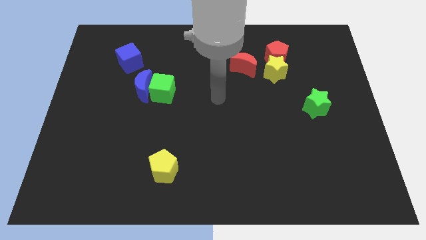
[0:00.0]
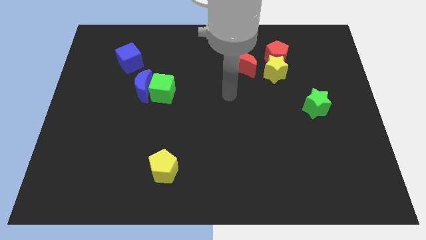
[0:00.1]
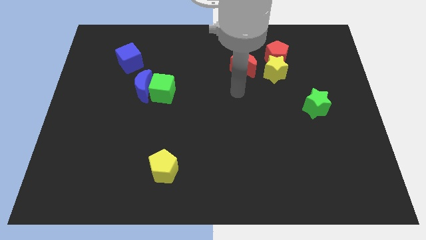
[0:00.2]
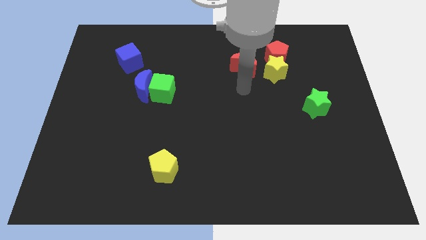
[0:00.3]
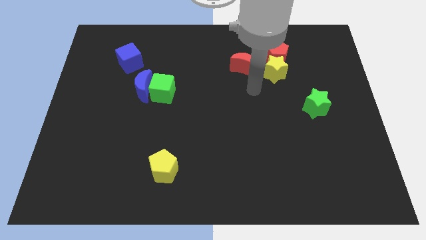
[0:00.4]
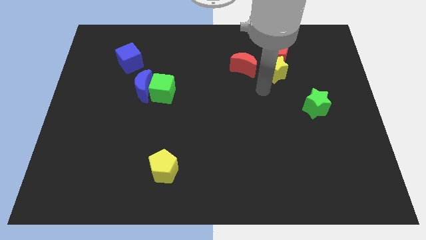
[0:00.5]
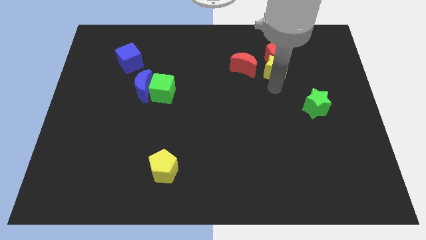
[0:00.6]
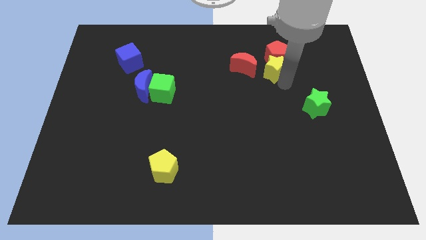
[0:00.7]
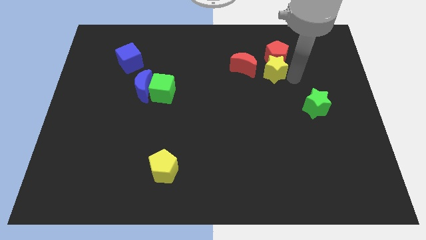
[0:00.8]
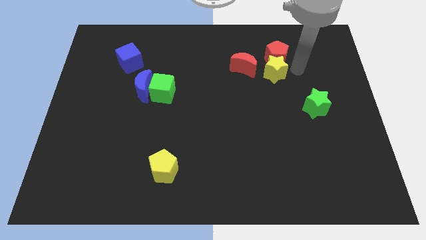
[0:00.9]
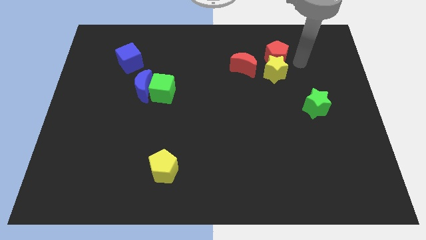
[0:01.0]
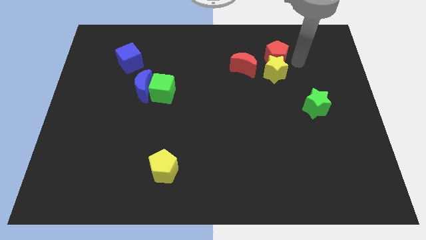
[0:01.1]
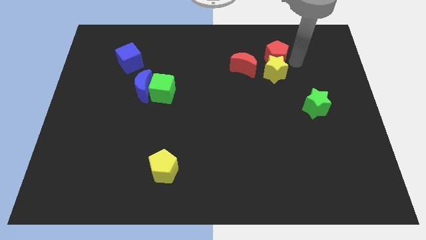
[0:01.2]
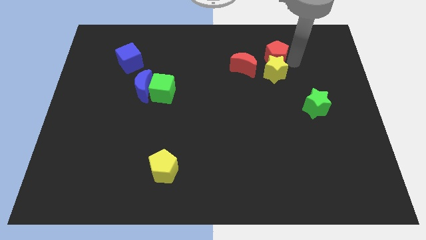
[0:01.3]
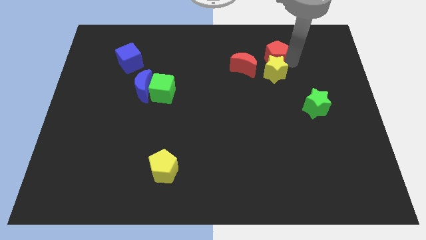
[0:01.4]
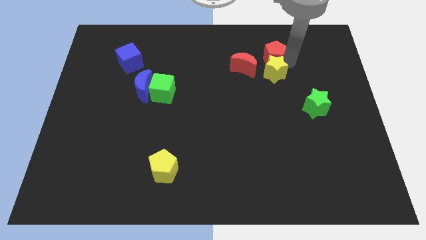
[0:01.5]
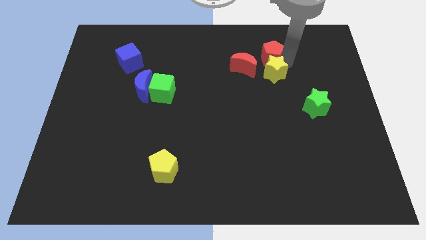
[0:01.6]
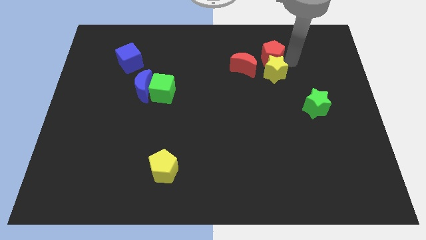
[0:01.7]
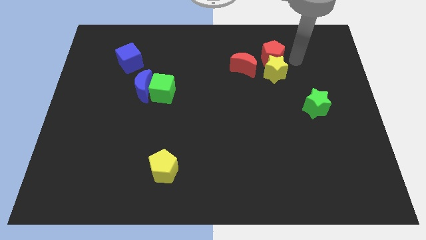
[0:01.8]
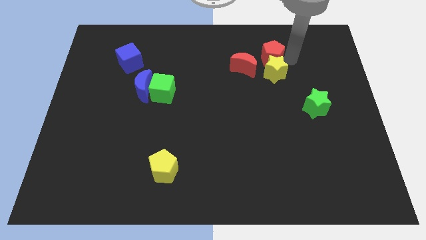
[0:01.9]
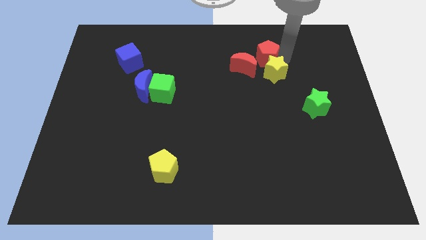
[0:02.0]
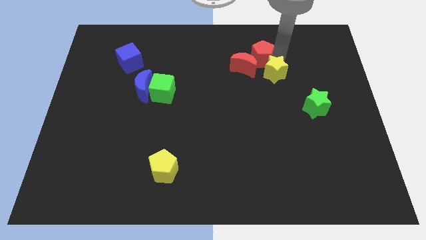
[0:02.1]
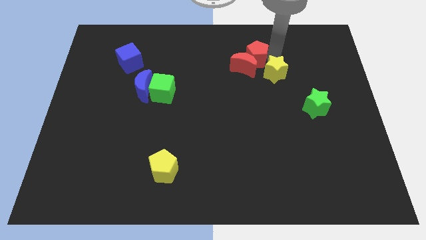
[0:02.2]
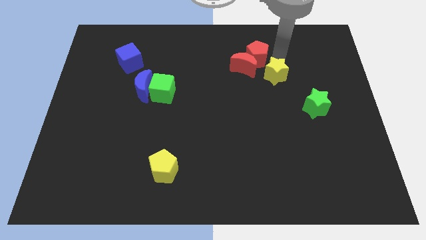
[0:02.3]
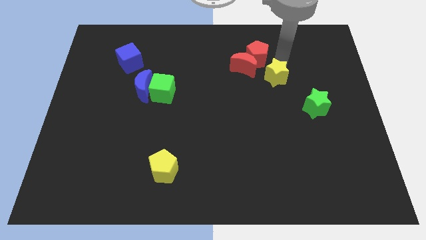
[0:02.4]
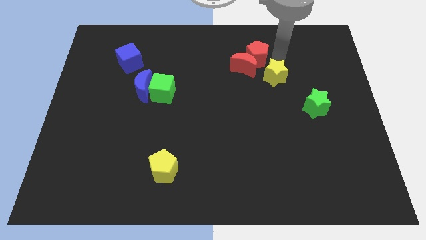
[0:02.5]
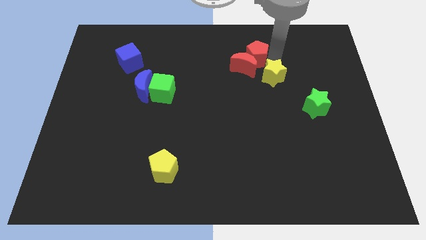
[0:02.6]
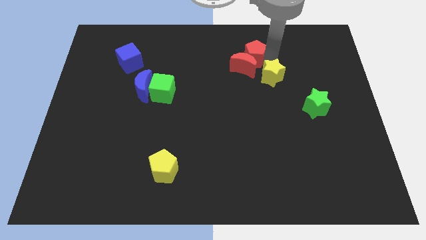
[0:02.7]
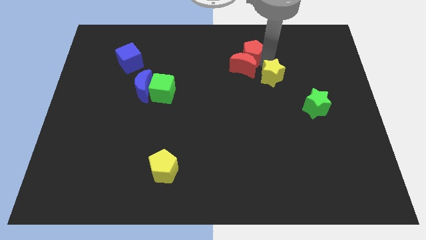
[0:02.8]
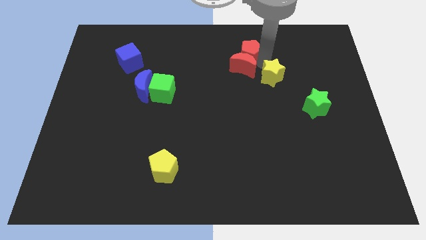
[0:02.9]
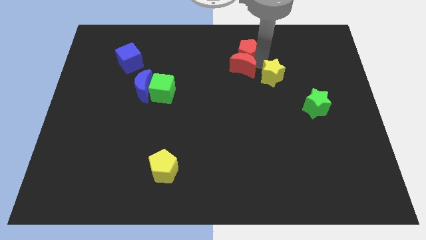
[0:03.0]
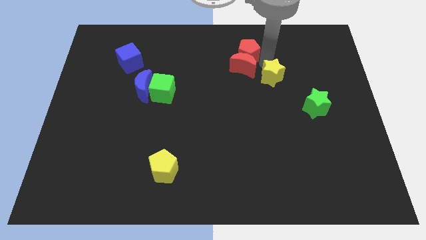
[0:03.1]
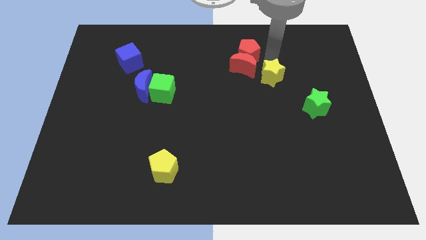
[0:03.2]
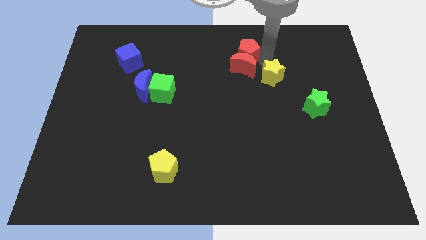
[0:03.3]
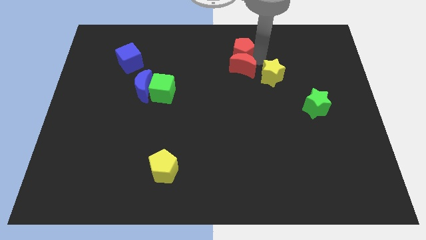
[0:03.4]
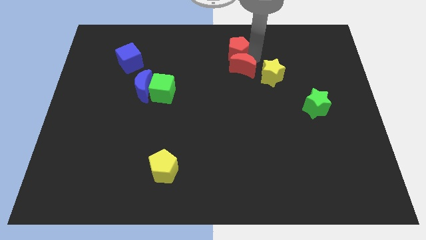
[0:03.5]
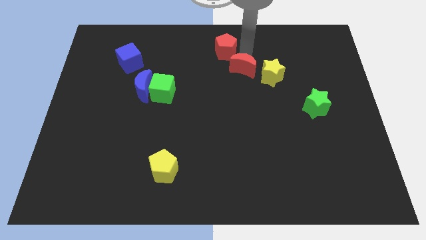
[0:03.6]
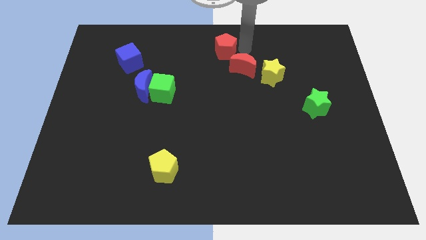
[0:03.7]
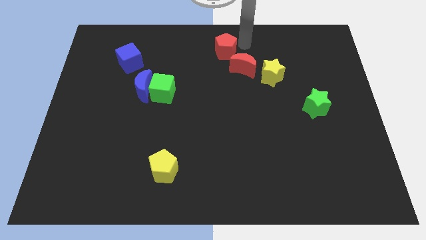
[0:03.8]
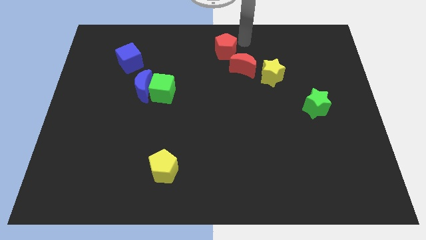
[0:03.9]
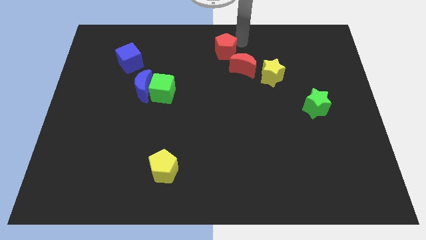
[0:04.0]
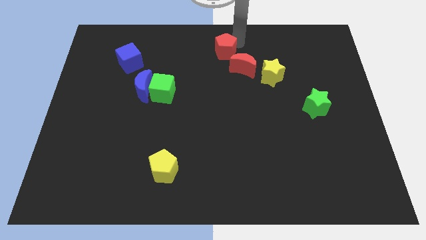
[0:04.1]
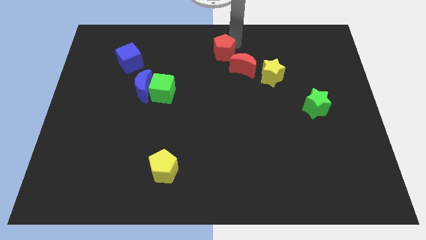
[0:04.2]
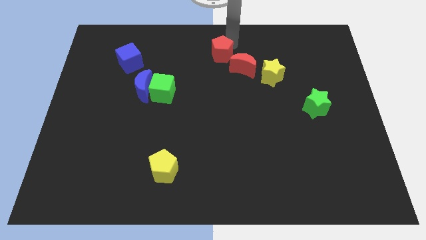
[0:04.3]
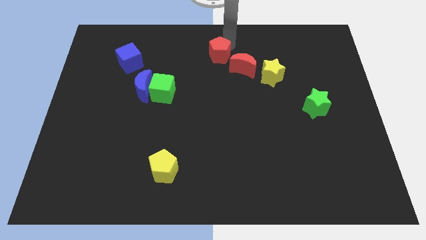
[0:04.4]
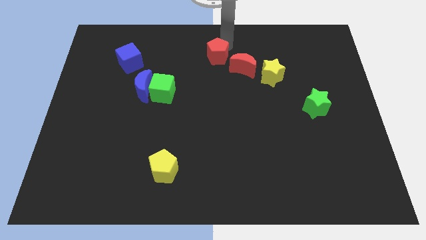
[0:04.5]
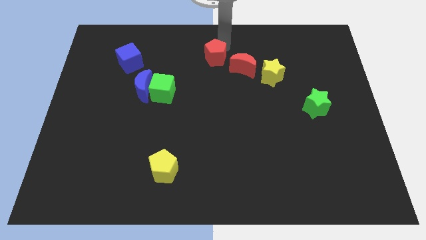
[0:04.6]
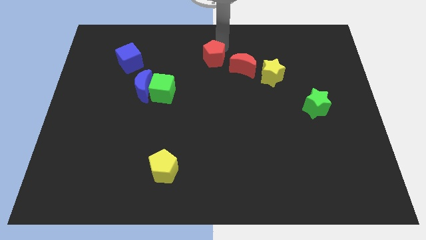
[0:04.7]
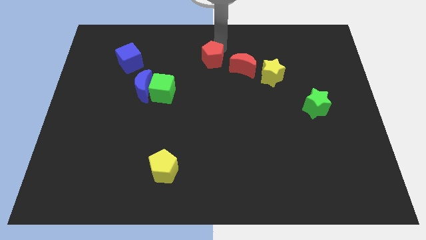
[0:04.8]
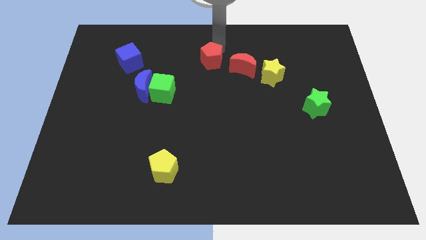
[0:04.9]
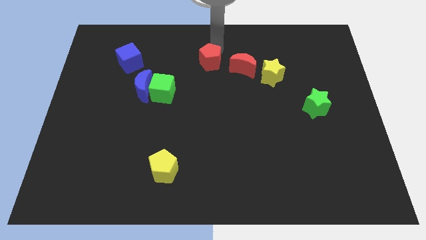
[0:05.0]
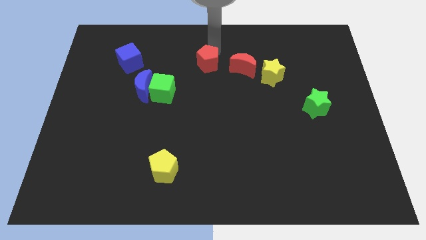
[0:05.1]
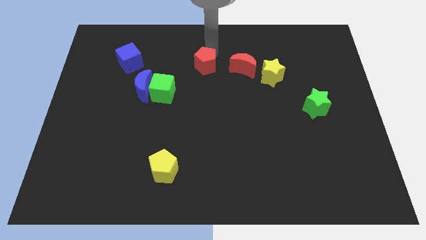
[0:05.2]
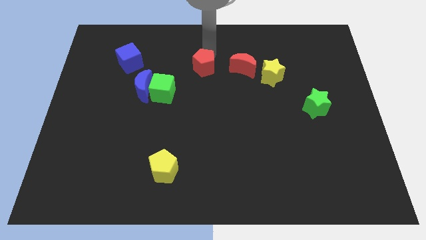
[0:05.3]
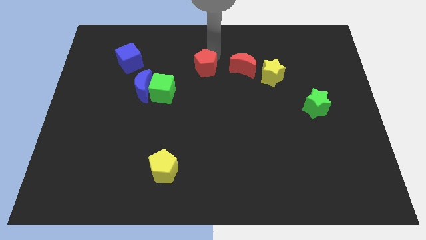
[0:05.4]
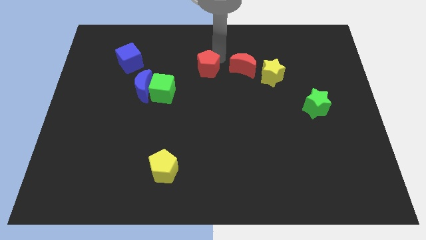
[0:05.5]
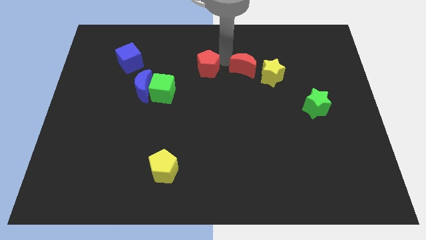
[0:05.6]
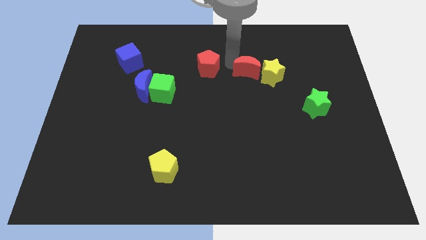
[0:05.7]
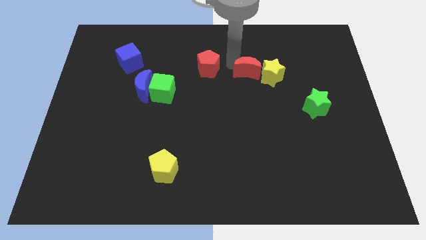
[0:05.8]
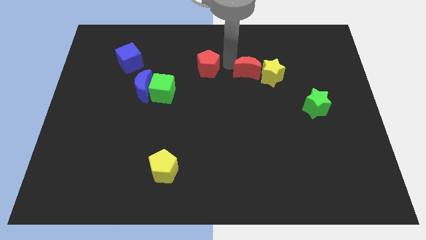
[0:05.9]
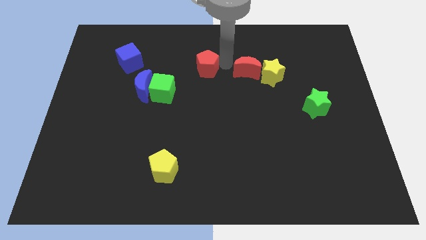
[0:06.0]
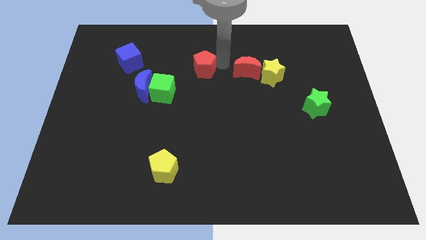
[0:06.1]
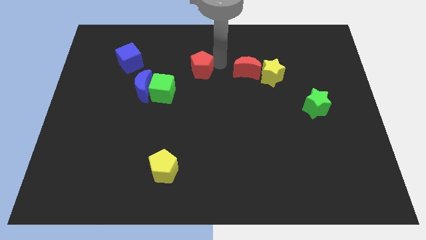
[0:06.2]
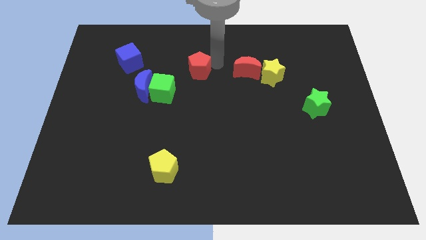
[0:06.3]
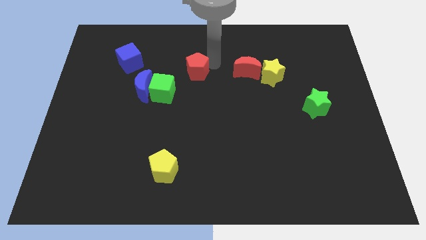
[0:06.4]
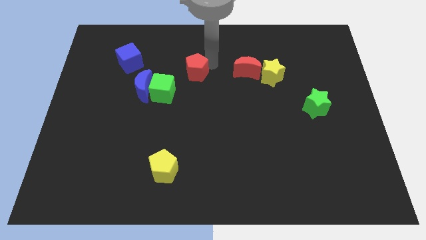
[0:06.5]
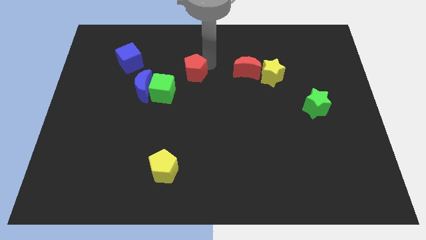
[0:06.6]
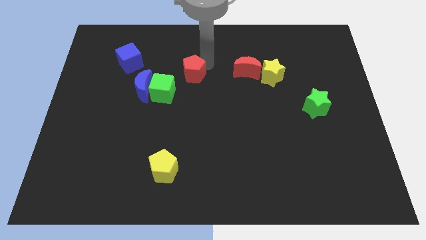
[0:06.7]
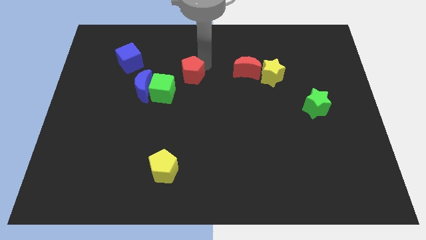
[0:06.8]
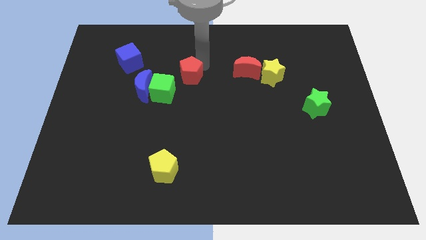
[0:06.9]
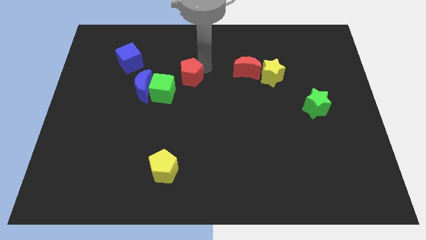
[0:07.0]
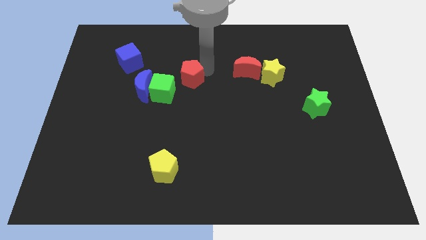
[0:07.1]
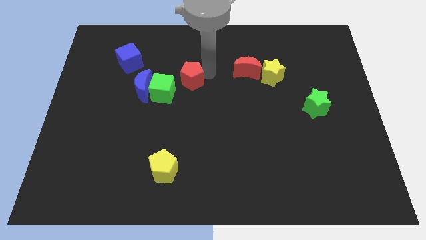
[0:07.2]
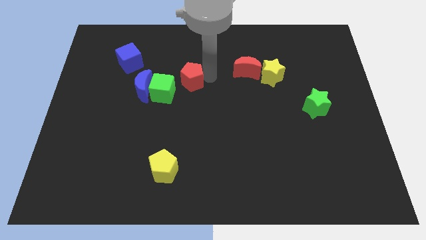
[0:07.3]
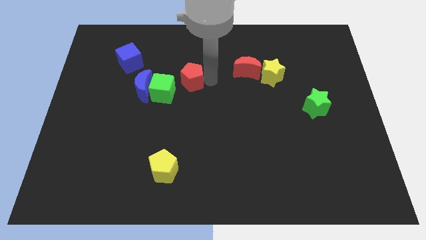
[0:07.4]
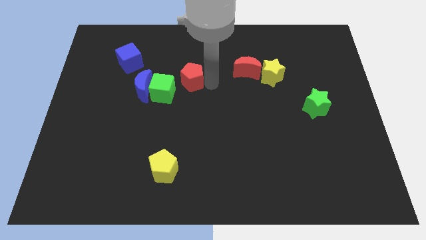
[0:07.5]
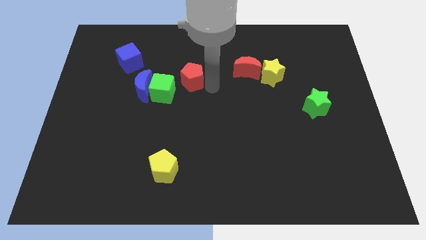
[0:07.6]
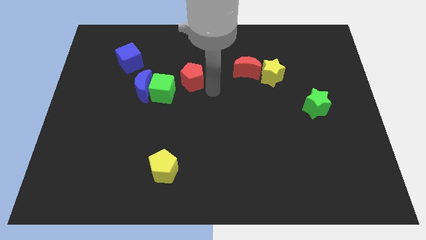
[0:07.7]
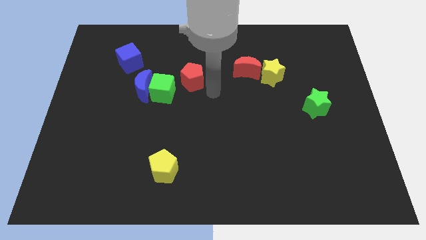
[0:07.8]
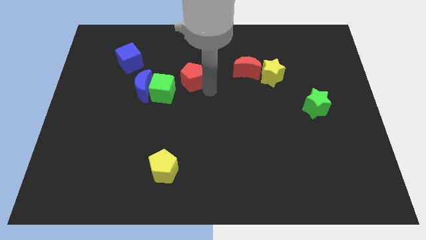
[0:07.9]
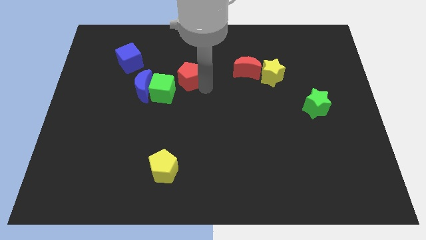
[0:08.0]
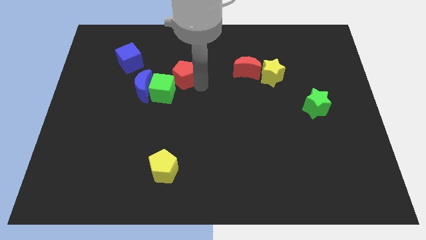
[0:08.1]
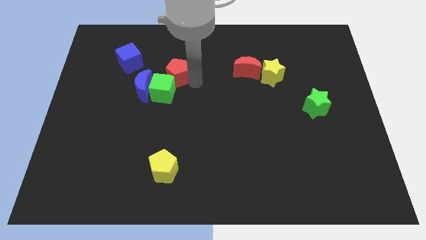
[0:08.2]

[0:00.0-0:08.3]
slide the red pentagon next to the green cube
